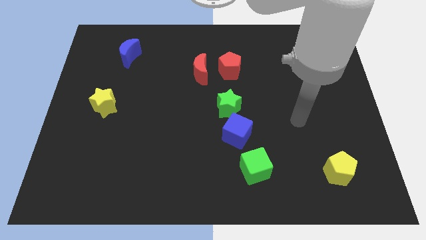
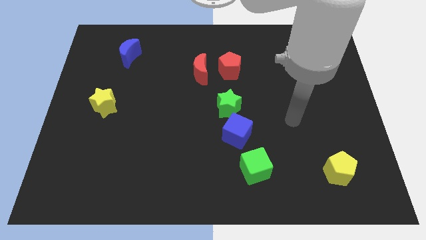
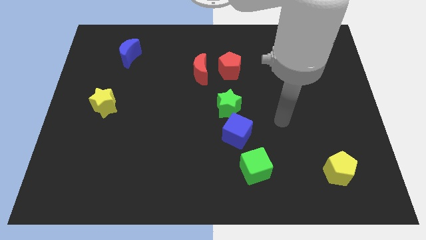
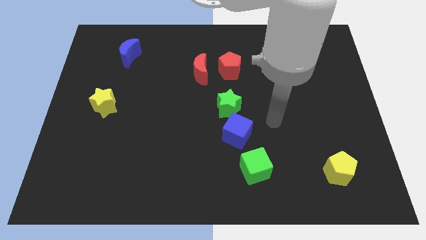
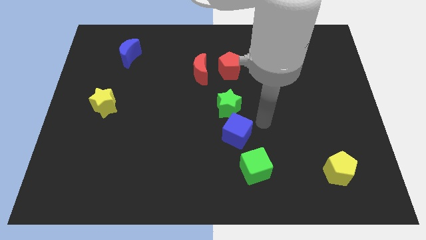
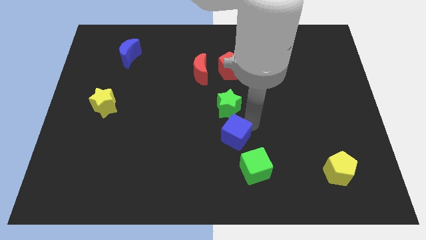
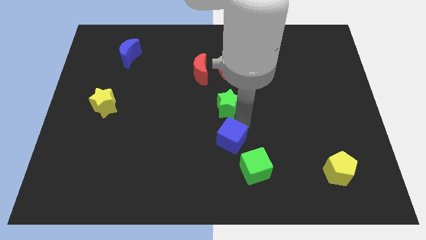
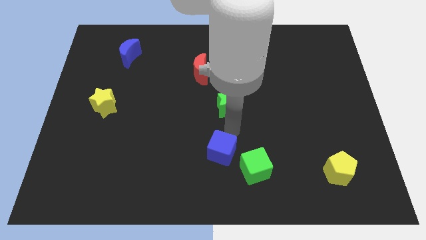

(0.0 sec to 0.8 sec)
pull the green star apart from the blue cube

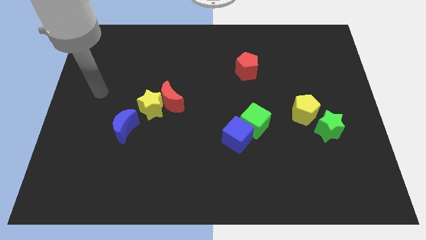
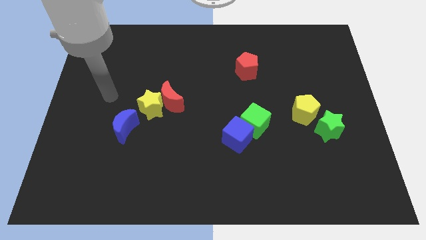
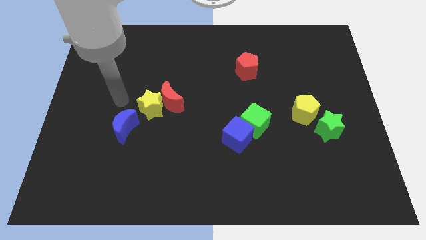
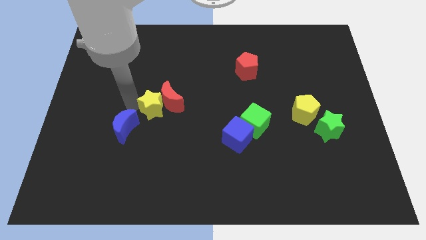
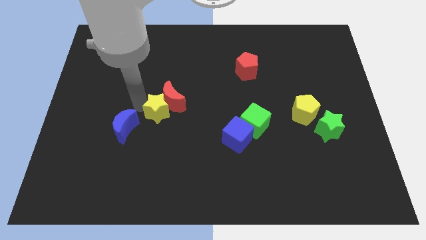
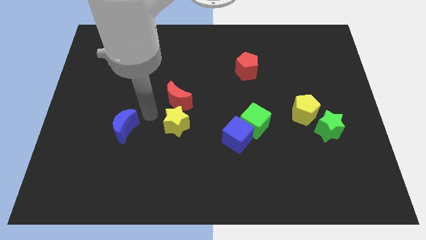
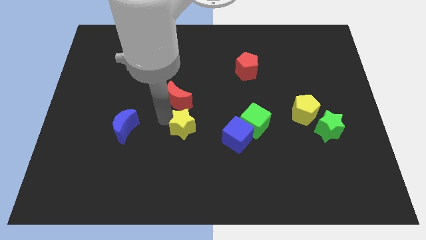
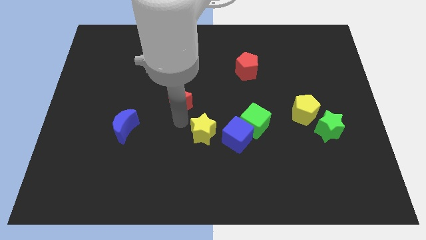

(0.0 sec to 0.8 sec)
separate the red moon from the yellow star

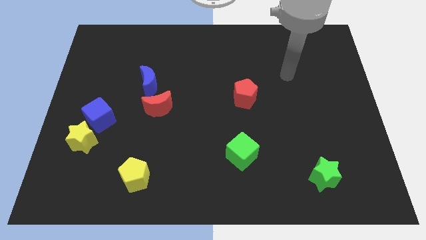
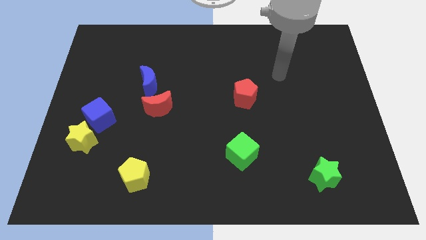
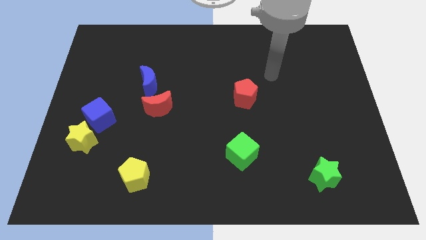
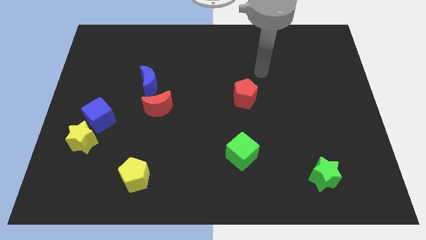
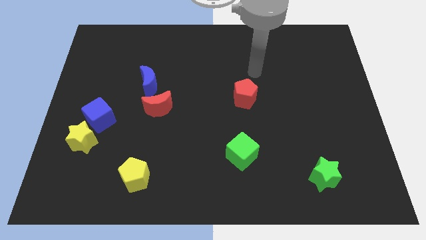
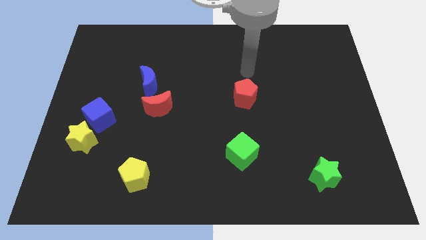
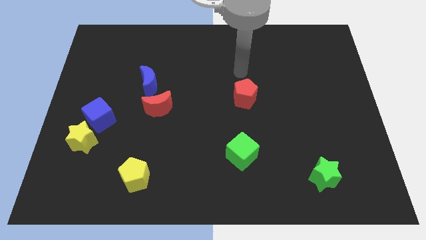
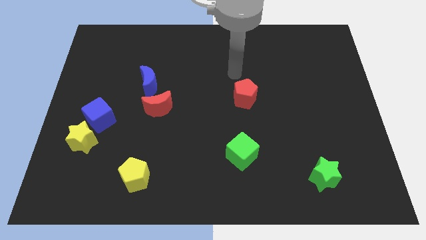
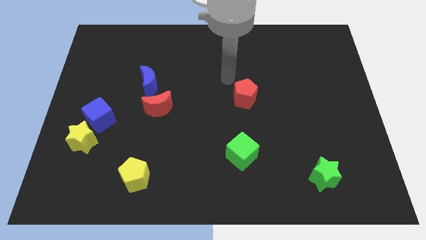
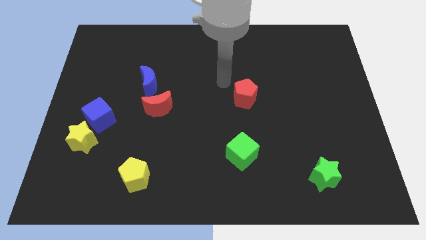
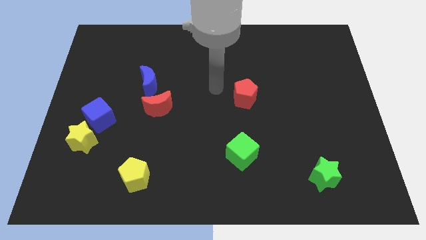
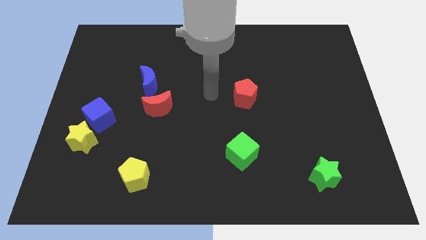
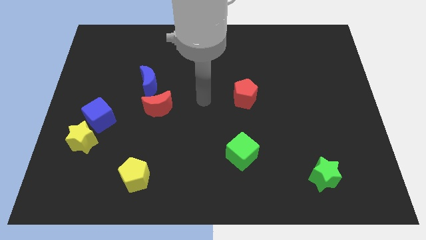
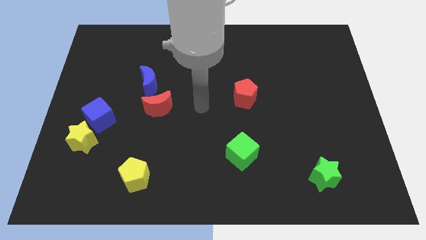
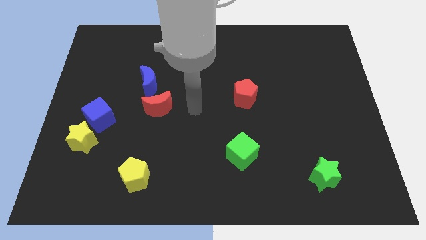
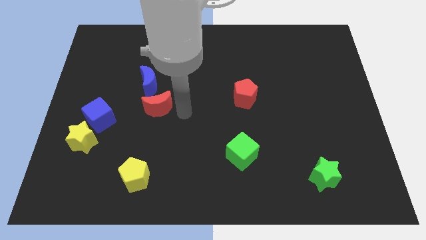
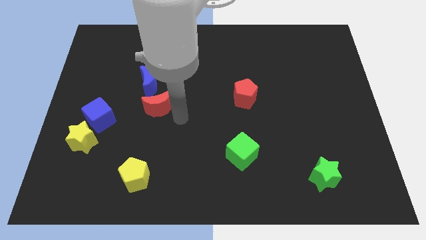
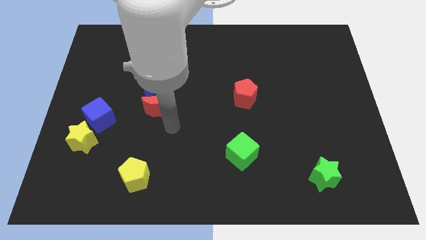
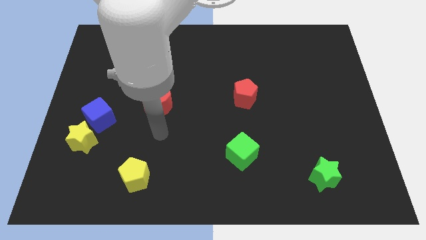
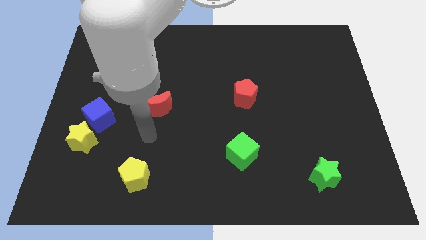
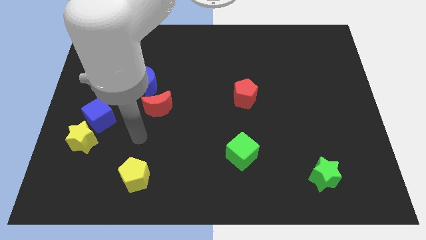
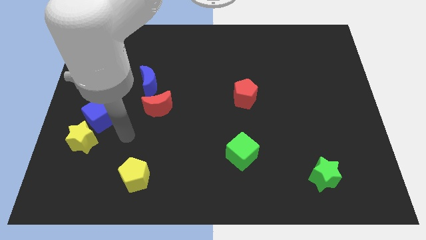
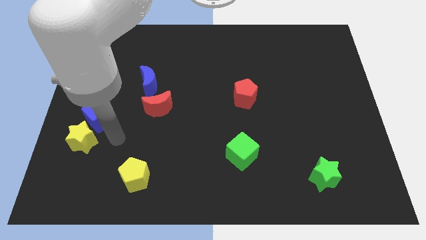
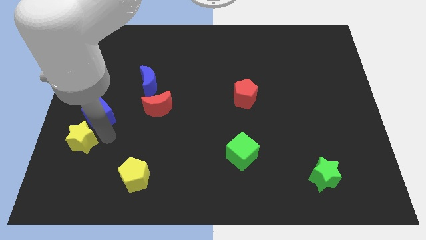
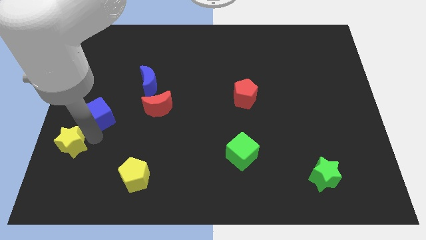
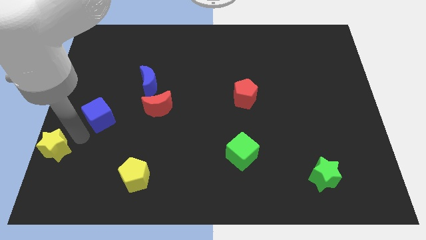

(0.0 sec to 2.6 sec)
separate the blue cube from the yellow star

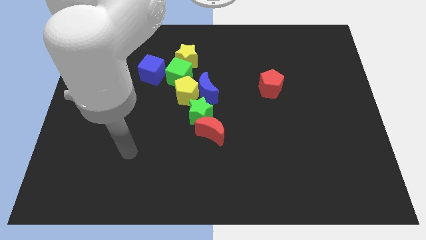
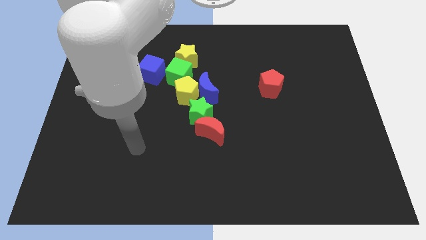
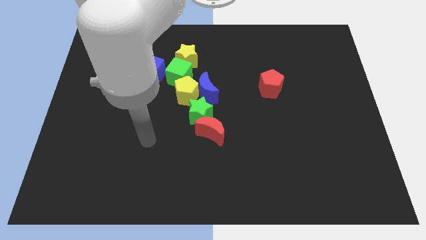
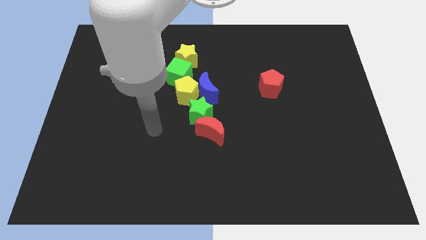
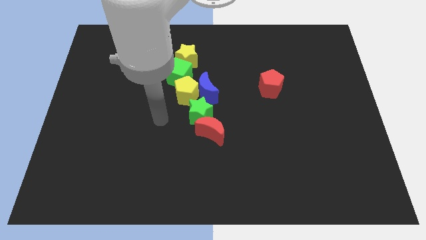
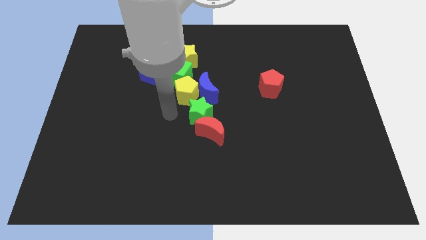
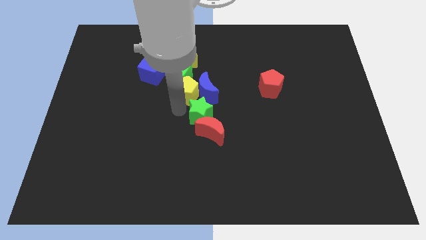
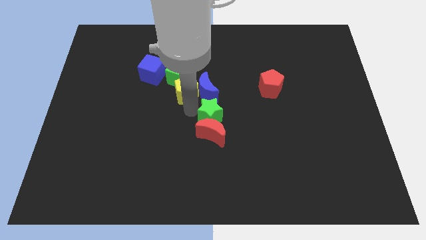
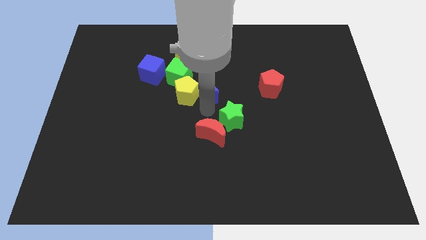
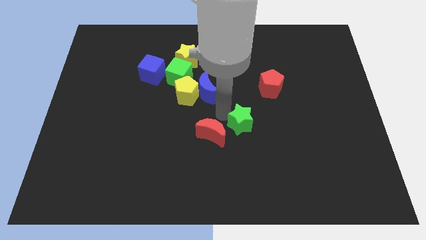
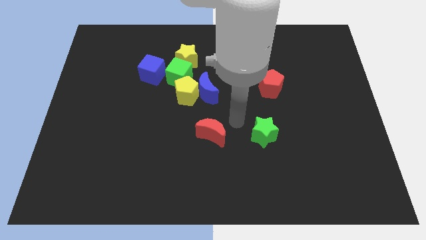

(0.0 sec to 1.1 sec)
separate the red moon from the green star

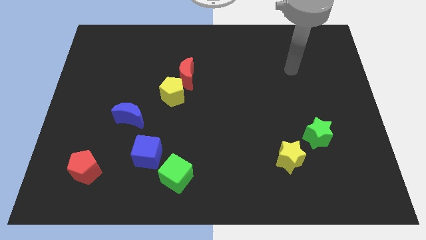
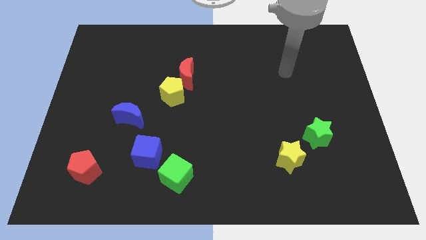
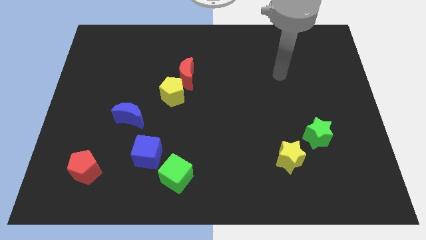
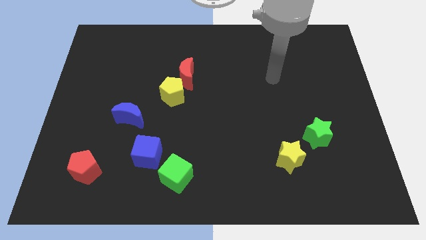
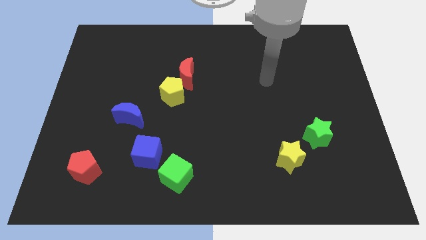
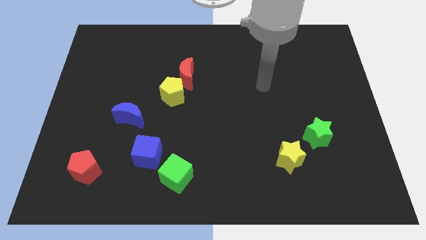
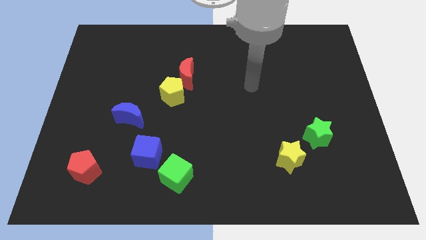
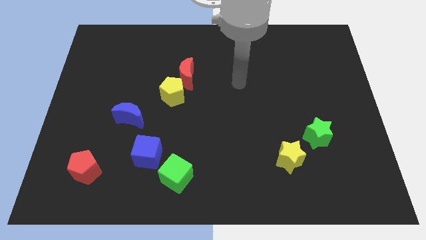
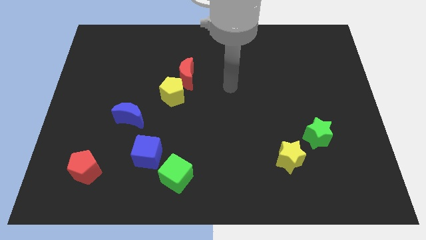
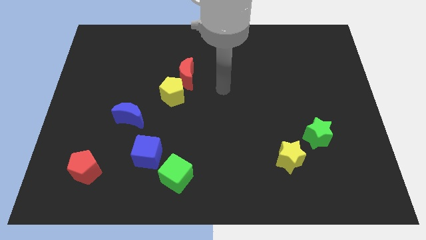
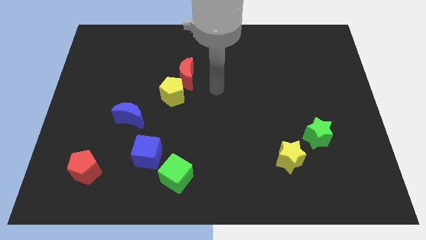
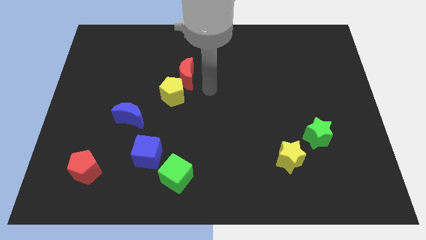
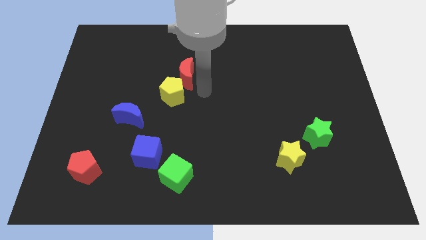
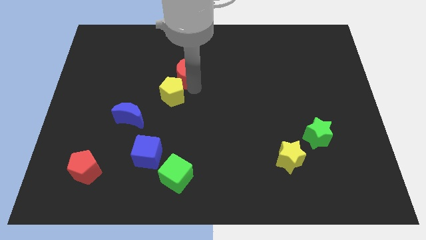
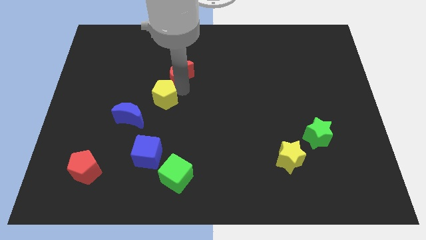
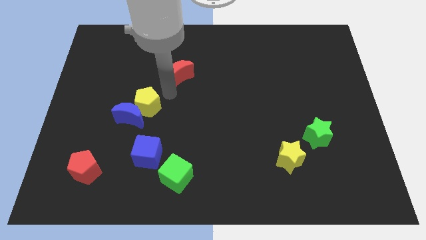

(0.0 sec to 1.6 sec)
pull the red moon apart from the yellow pentagon

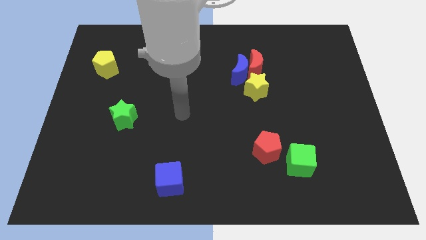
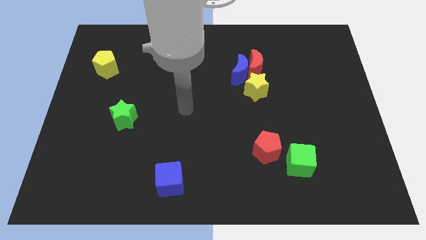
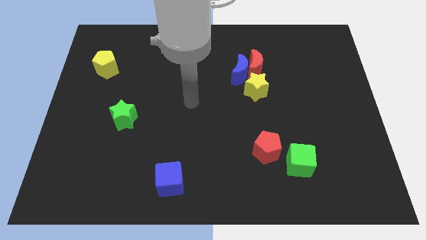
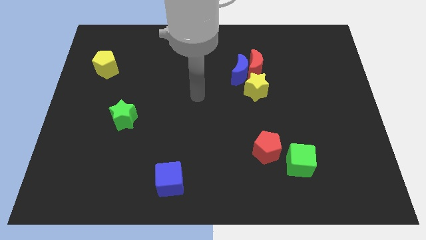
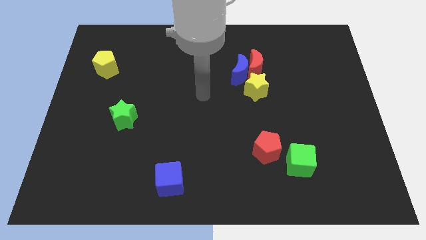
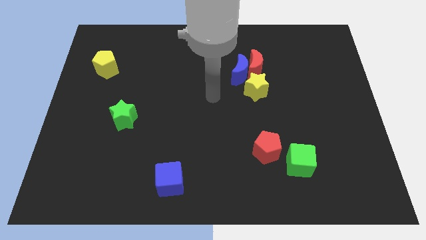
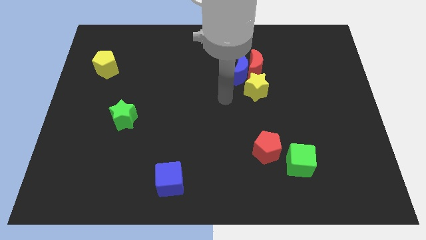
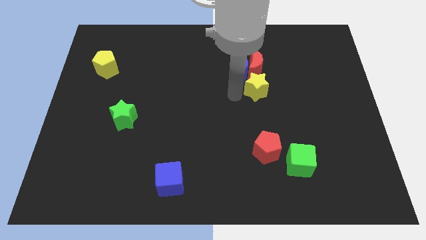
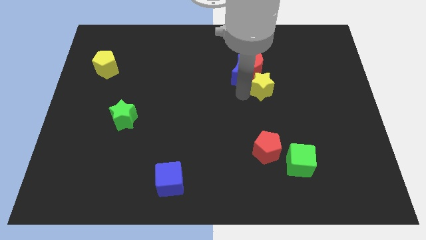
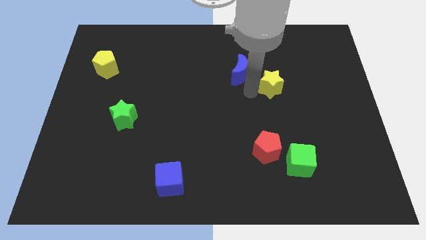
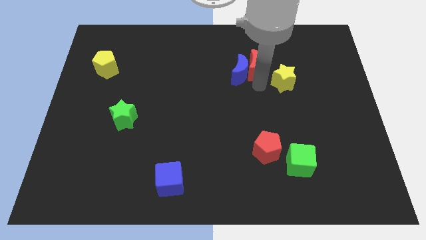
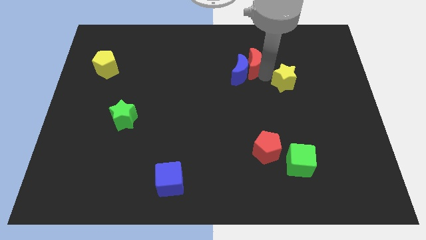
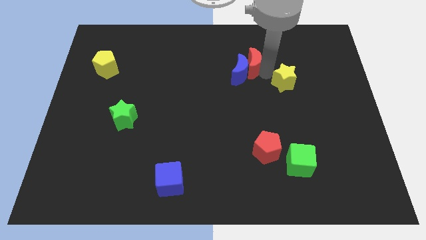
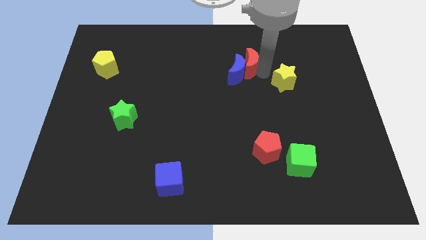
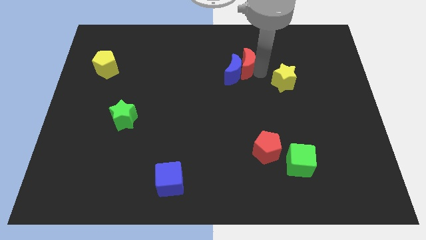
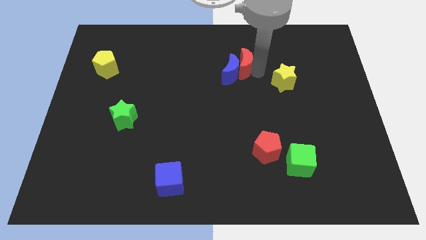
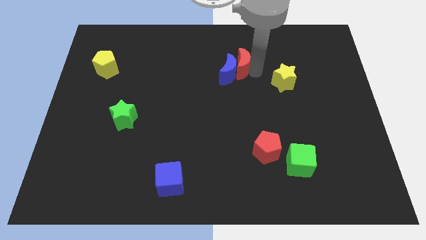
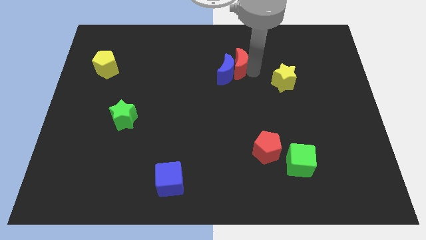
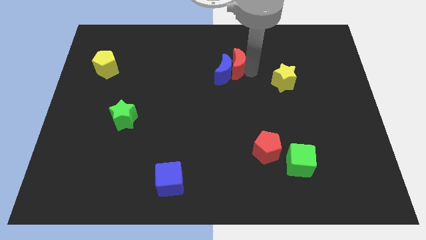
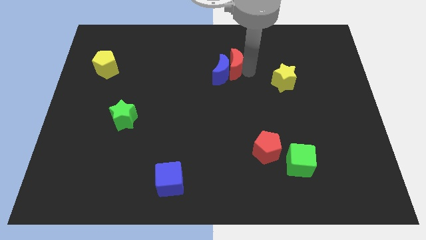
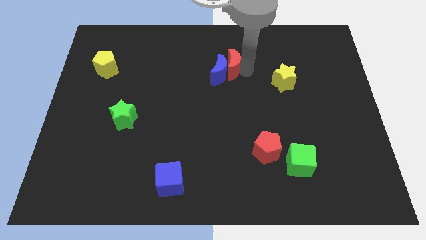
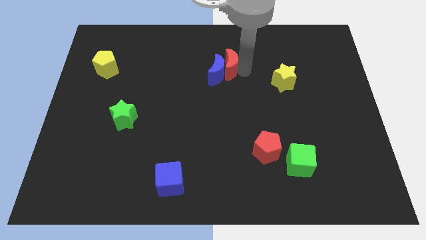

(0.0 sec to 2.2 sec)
separate the blue moon from the red moon and yellow star
